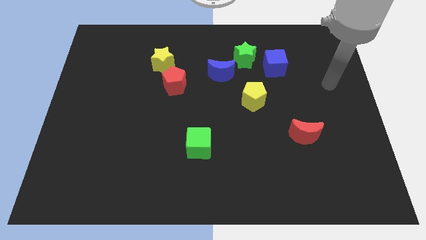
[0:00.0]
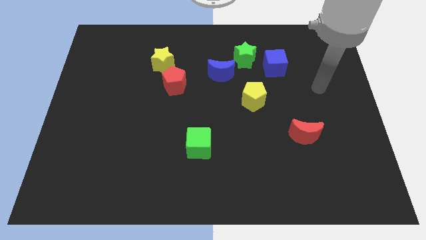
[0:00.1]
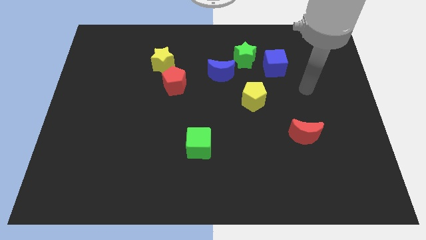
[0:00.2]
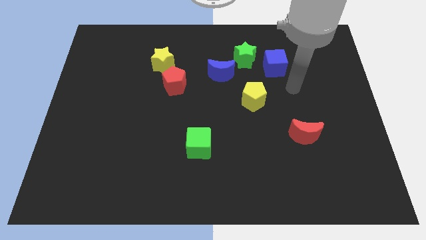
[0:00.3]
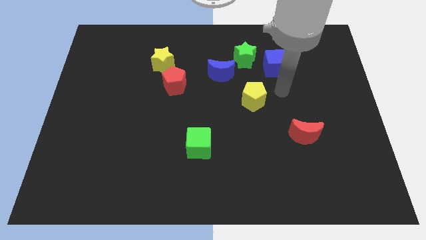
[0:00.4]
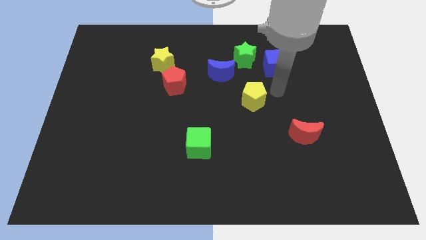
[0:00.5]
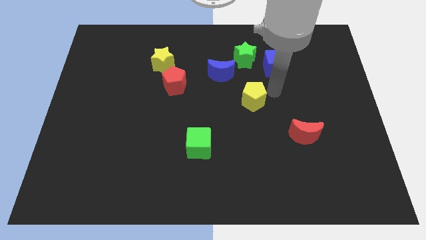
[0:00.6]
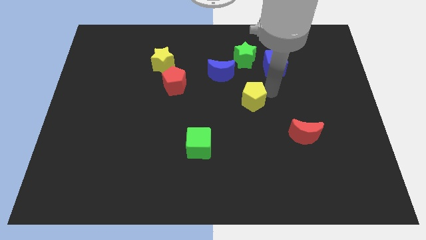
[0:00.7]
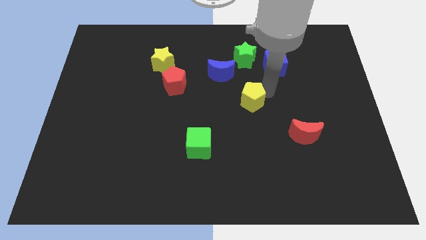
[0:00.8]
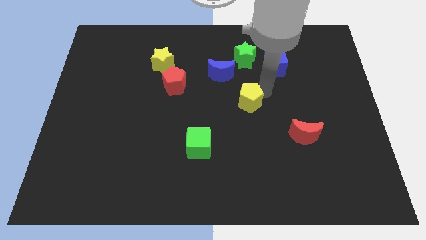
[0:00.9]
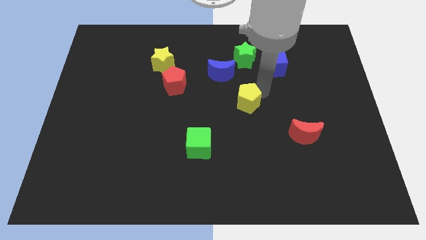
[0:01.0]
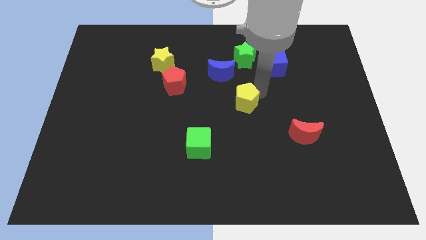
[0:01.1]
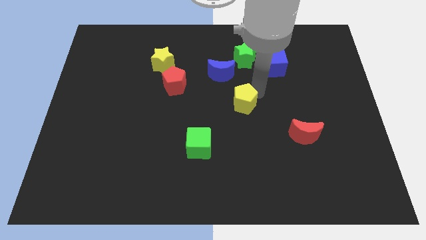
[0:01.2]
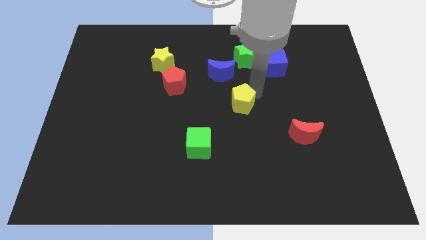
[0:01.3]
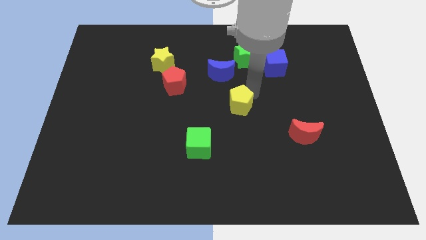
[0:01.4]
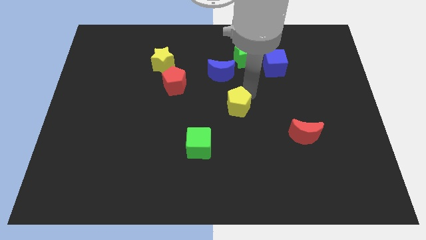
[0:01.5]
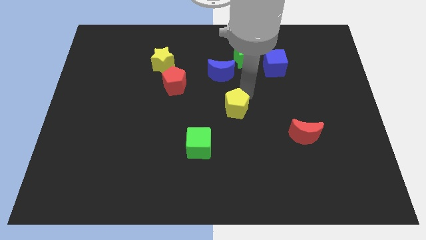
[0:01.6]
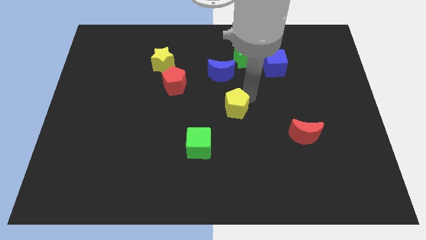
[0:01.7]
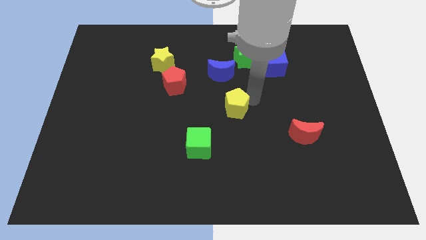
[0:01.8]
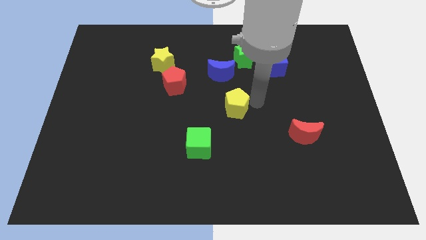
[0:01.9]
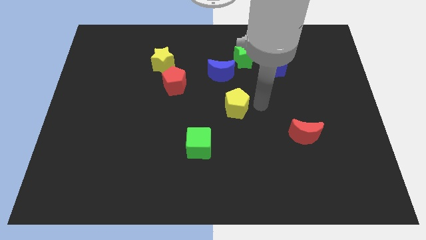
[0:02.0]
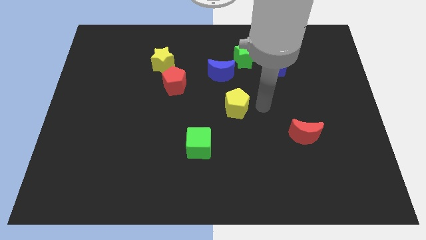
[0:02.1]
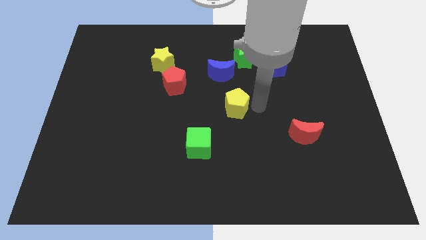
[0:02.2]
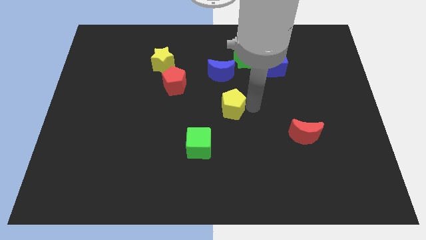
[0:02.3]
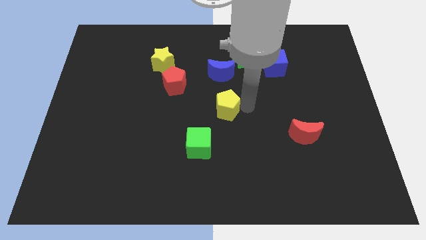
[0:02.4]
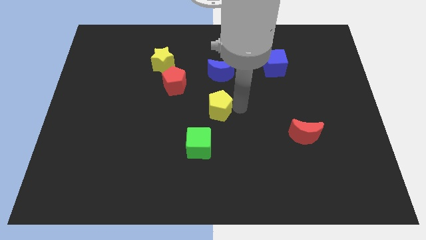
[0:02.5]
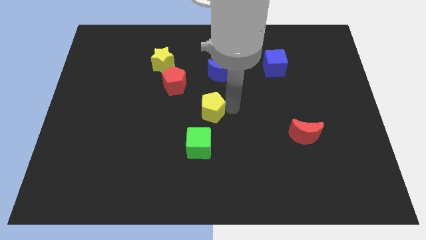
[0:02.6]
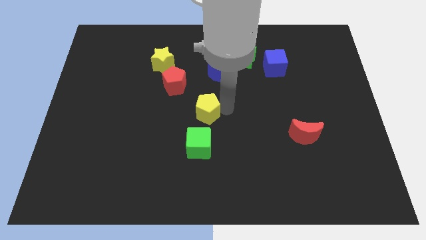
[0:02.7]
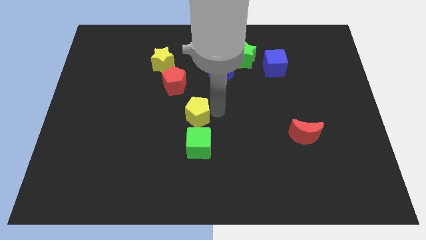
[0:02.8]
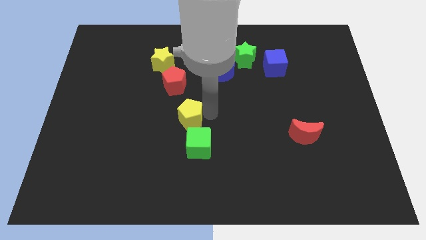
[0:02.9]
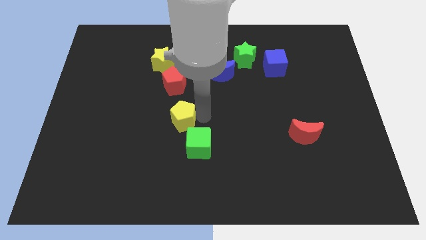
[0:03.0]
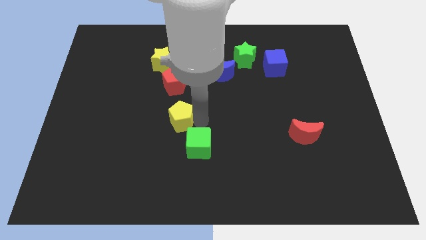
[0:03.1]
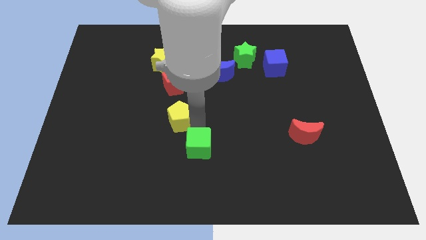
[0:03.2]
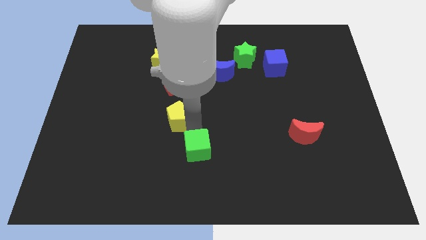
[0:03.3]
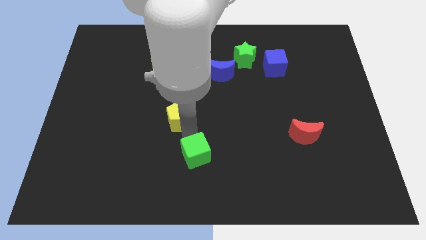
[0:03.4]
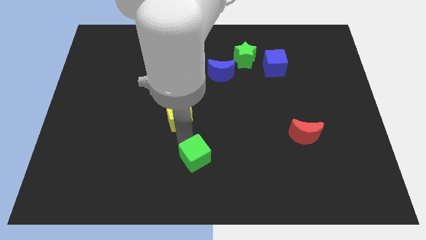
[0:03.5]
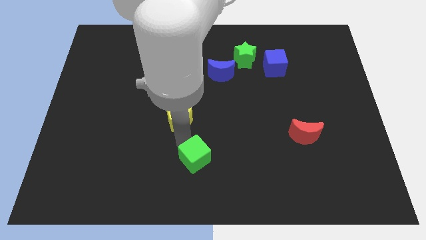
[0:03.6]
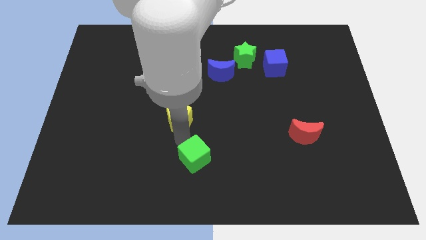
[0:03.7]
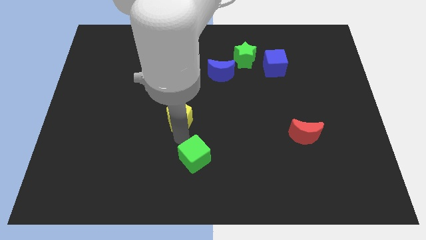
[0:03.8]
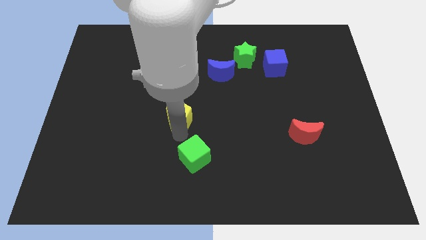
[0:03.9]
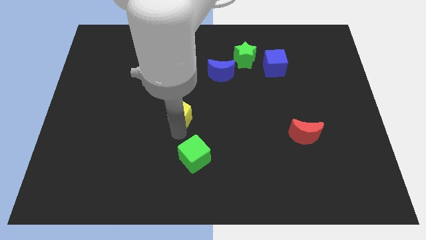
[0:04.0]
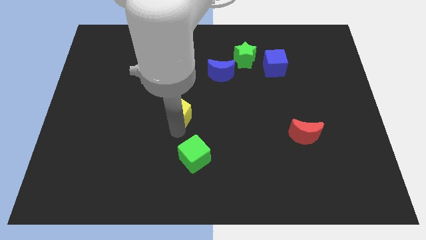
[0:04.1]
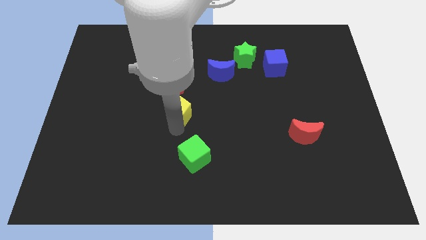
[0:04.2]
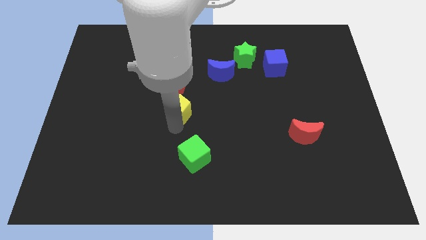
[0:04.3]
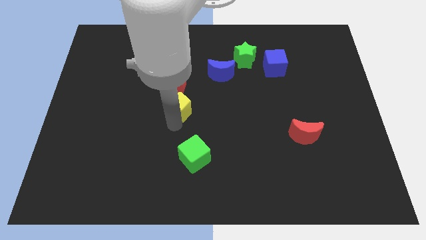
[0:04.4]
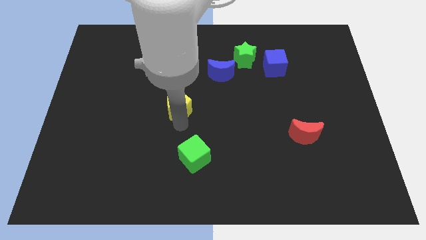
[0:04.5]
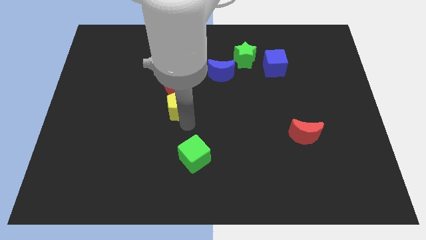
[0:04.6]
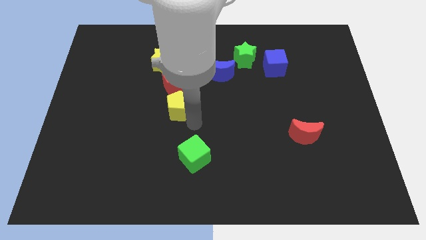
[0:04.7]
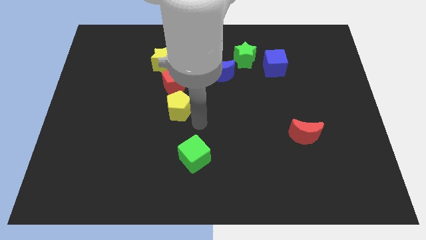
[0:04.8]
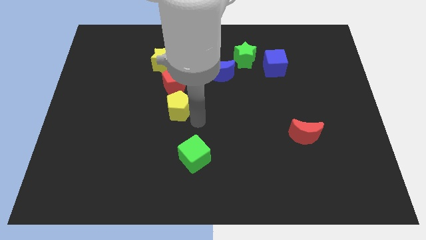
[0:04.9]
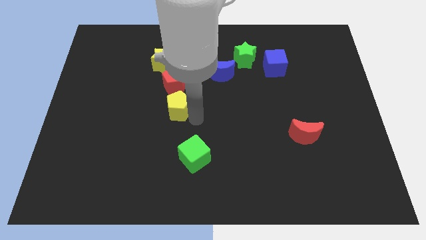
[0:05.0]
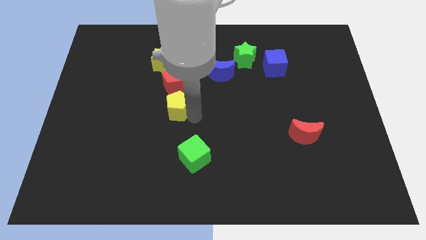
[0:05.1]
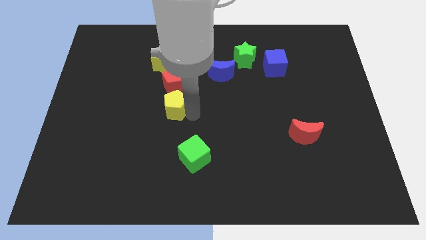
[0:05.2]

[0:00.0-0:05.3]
push the yellow pentagon to the bottom side of the yellow star

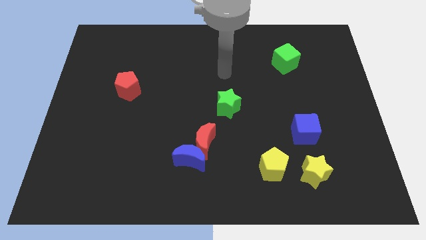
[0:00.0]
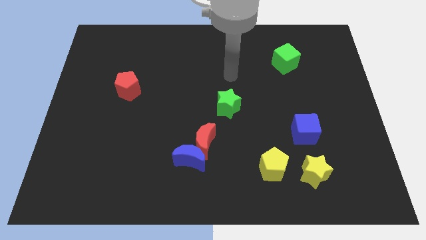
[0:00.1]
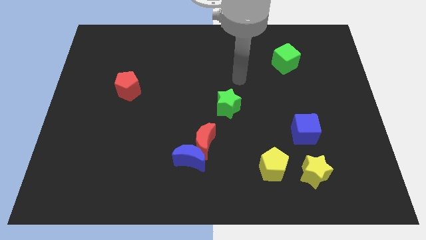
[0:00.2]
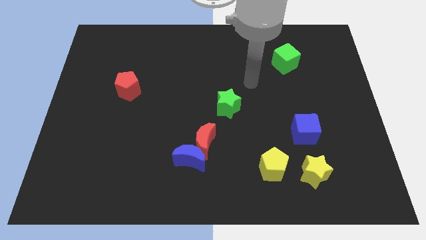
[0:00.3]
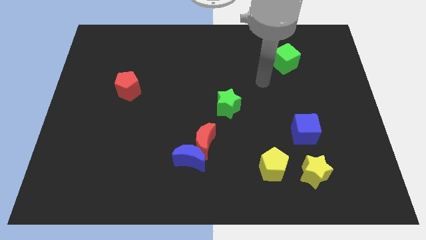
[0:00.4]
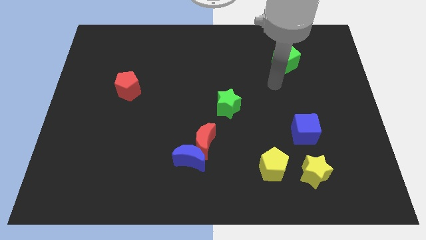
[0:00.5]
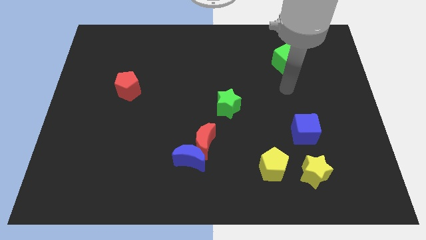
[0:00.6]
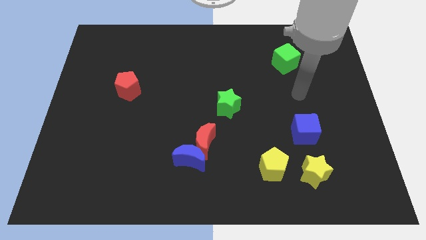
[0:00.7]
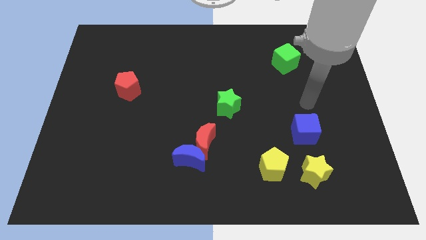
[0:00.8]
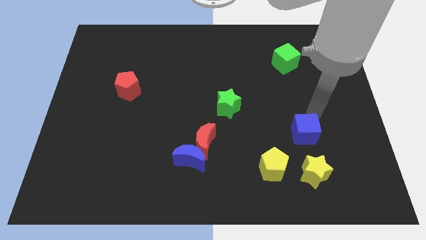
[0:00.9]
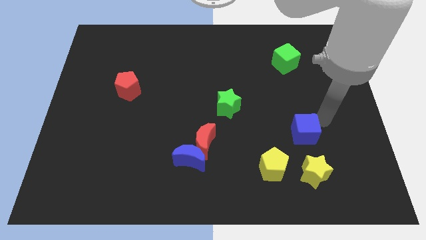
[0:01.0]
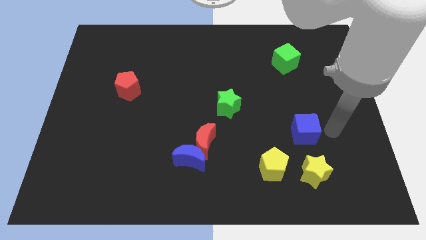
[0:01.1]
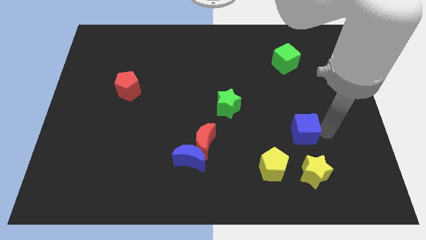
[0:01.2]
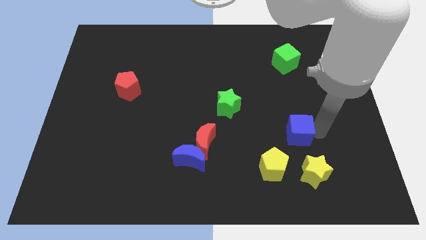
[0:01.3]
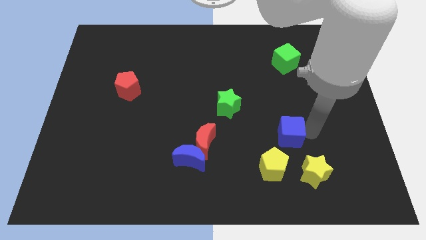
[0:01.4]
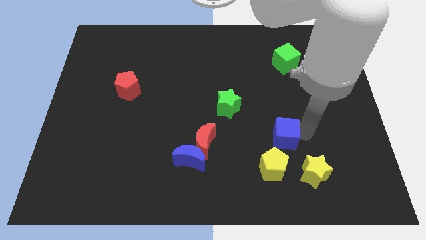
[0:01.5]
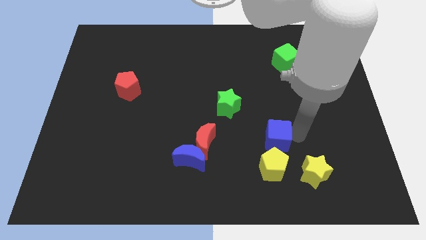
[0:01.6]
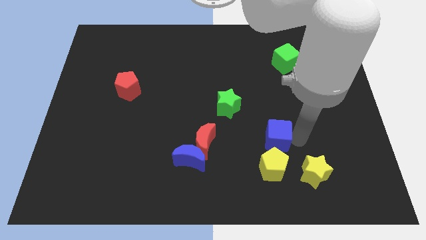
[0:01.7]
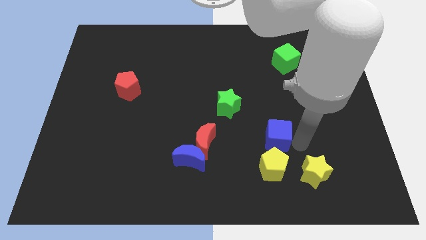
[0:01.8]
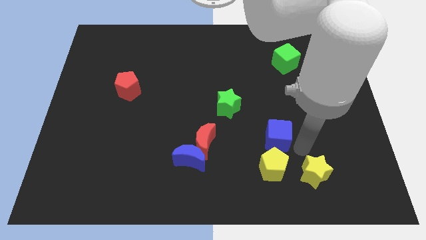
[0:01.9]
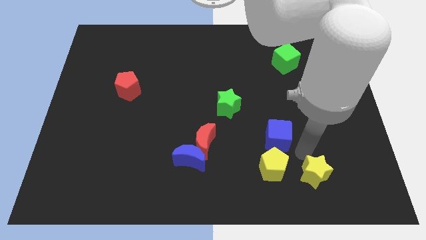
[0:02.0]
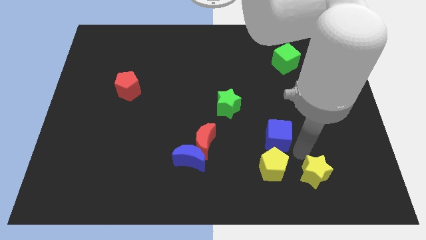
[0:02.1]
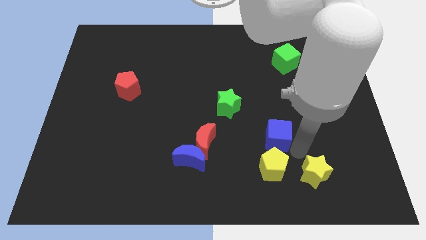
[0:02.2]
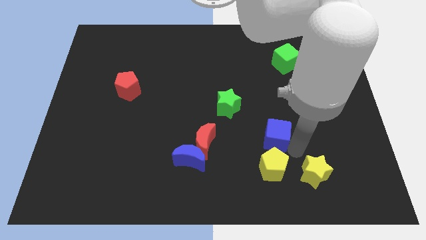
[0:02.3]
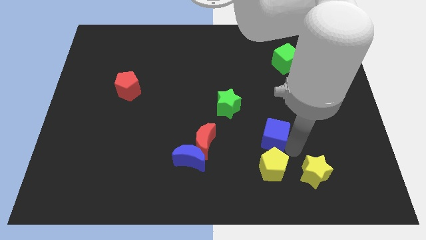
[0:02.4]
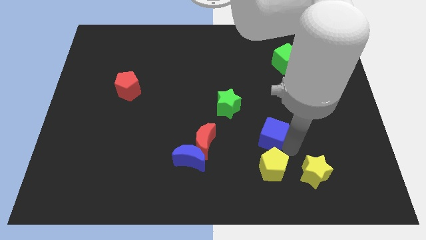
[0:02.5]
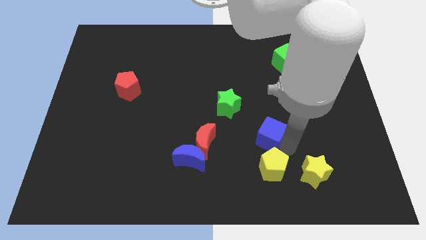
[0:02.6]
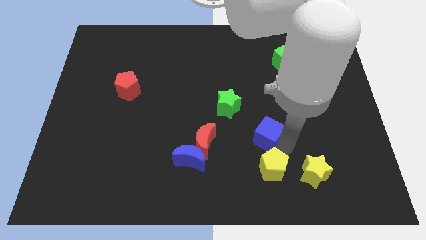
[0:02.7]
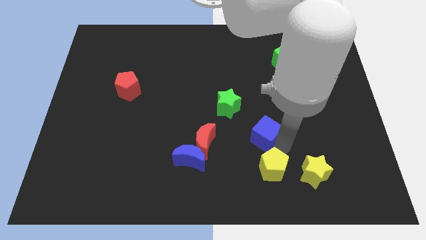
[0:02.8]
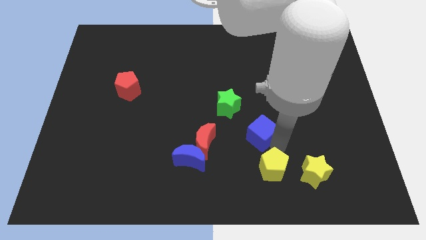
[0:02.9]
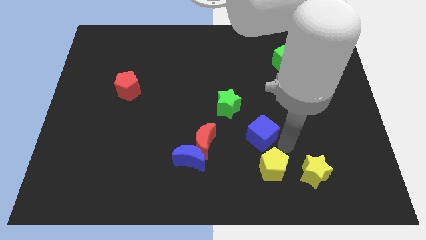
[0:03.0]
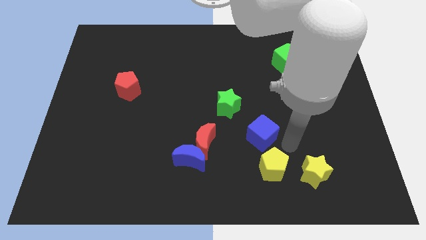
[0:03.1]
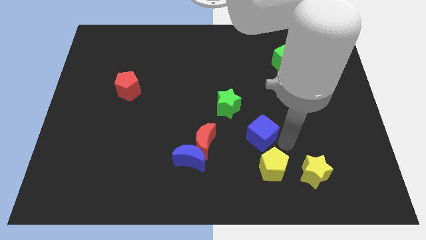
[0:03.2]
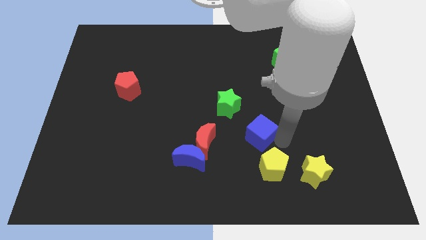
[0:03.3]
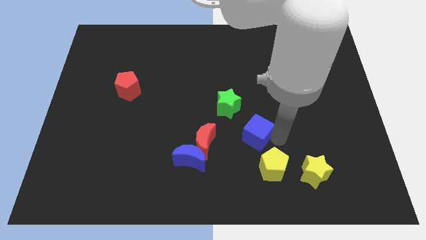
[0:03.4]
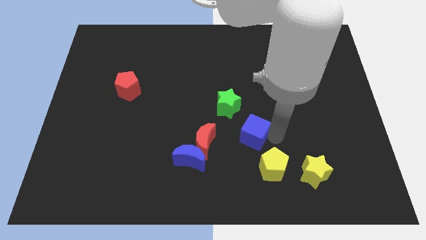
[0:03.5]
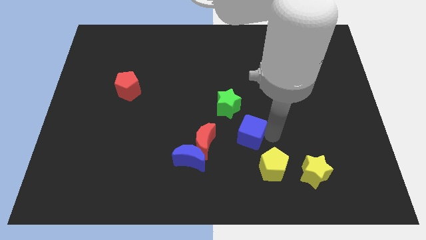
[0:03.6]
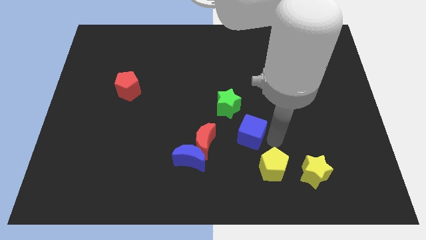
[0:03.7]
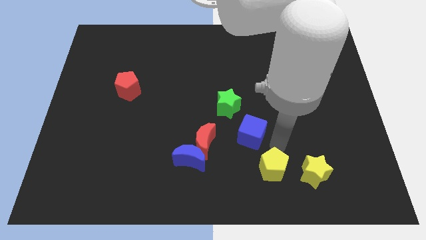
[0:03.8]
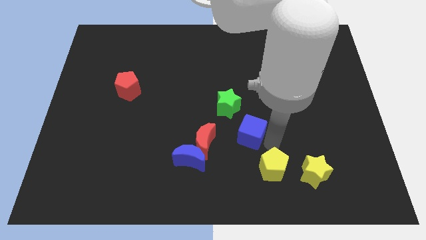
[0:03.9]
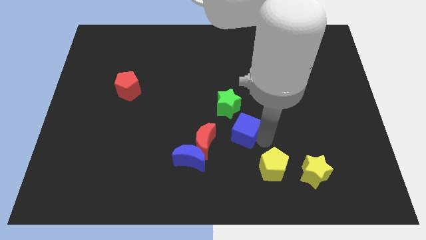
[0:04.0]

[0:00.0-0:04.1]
put the blue cube to the top right of the red moon
